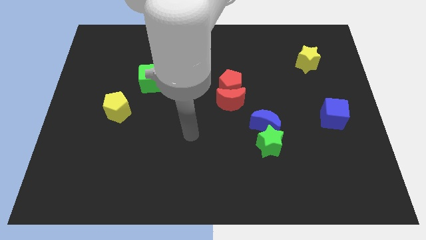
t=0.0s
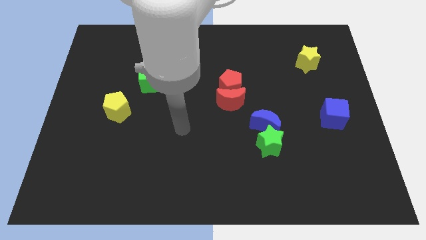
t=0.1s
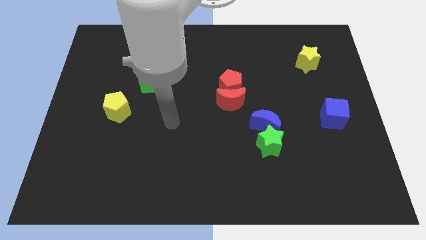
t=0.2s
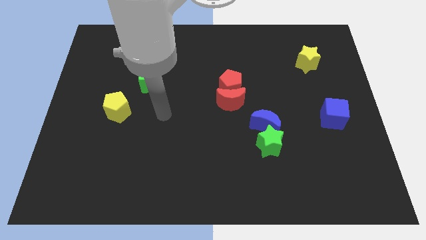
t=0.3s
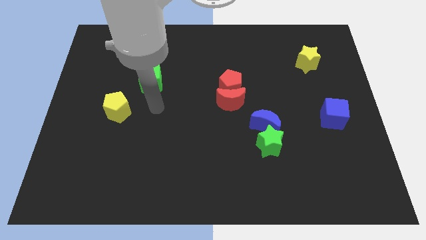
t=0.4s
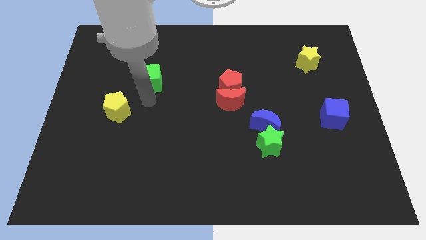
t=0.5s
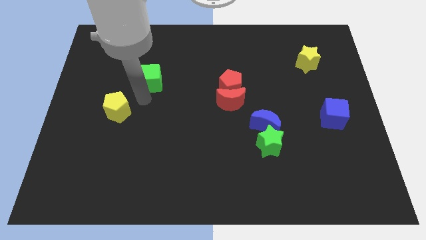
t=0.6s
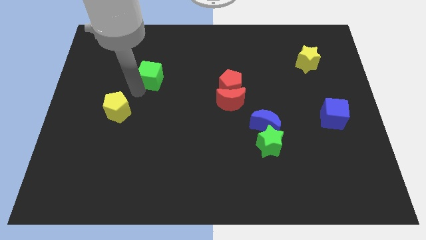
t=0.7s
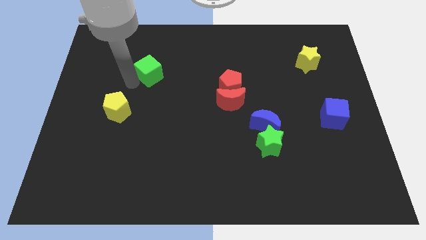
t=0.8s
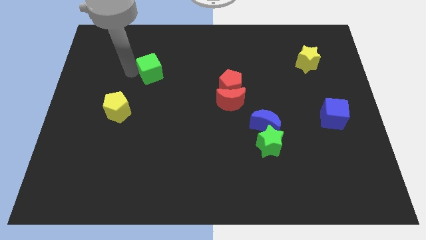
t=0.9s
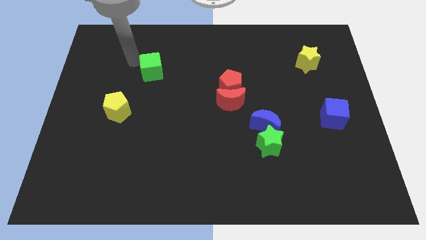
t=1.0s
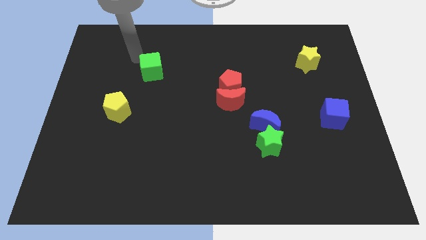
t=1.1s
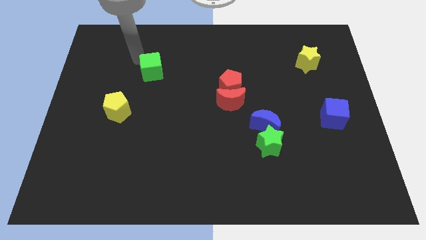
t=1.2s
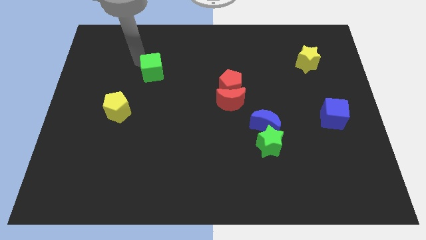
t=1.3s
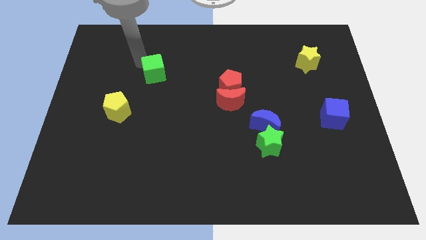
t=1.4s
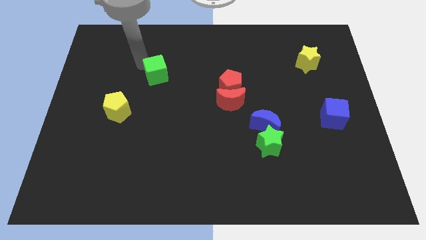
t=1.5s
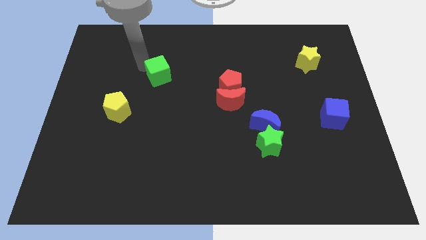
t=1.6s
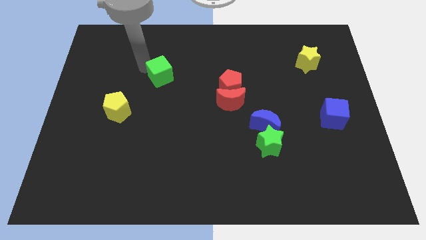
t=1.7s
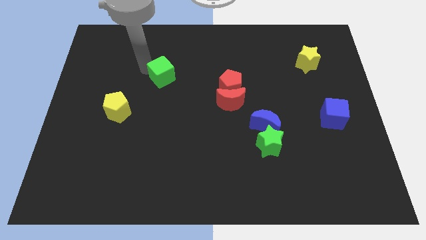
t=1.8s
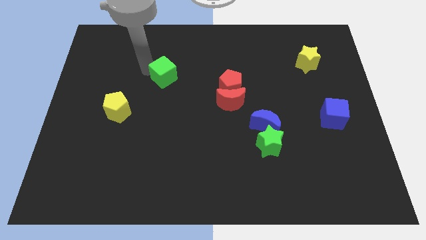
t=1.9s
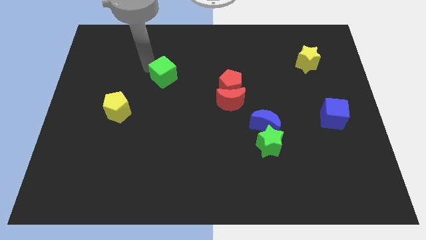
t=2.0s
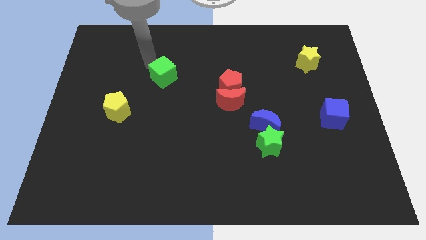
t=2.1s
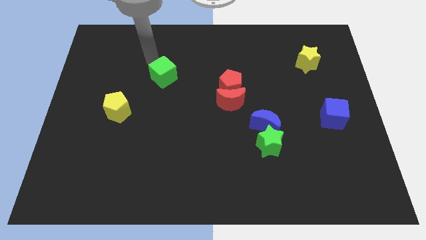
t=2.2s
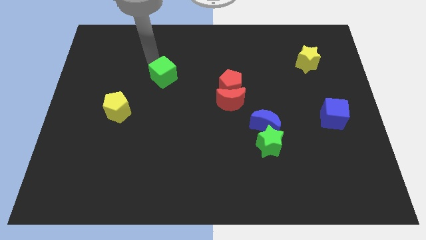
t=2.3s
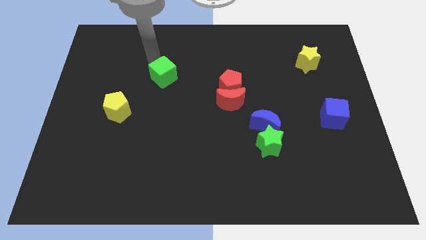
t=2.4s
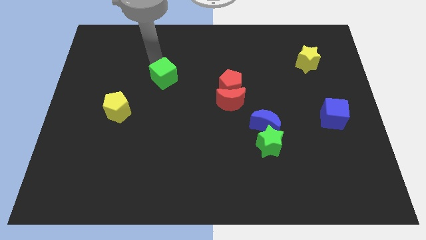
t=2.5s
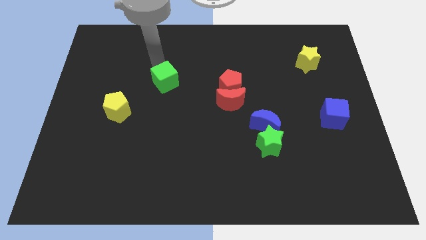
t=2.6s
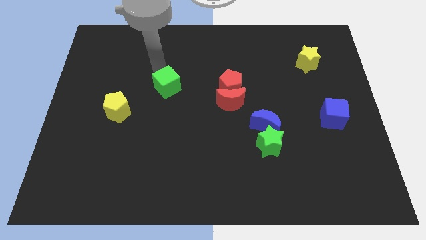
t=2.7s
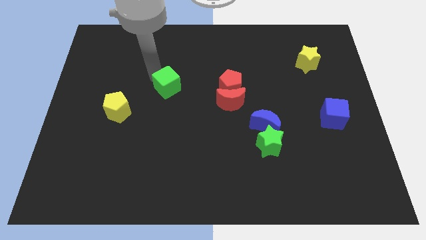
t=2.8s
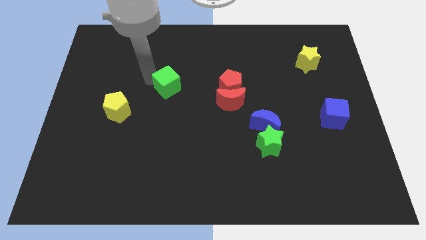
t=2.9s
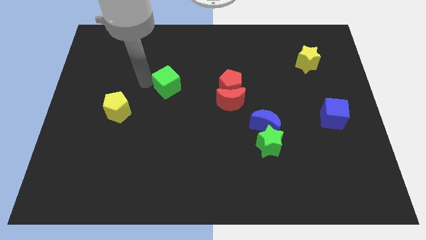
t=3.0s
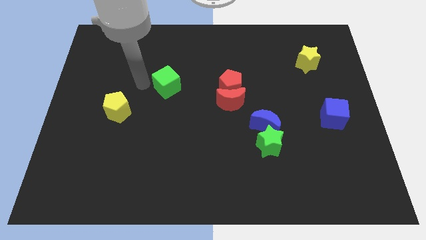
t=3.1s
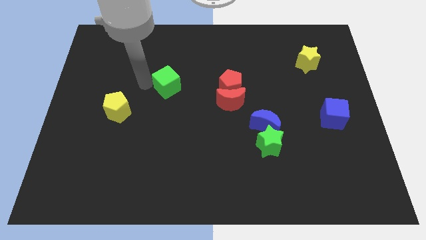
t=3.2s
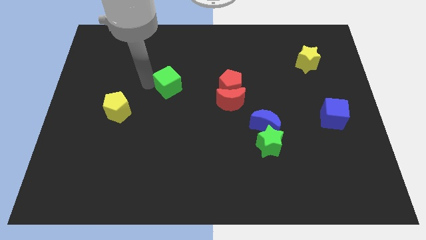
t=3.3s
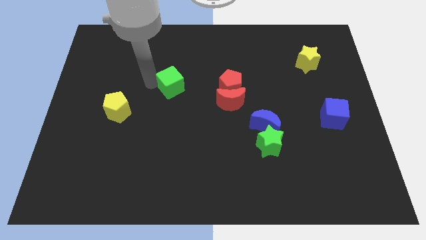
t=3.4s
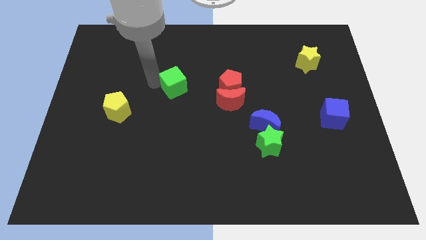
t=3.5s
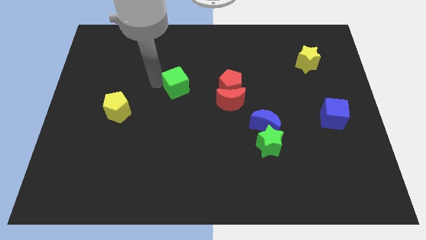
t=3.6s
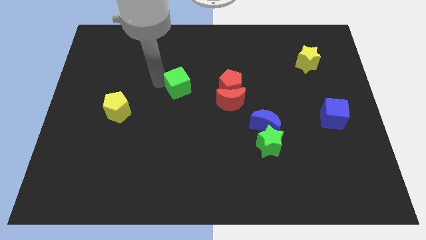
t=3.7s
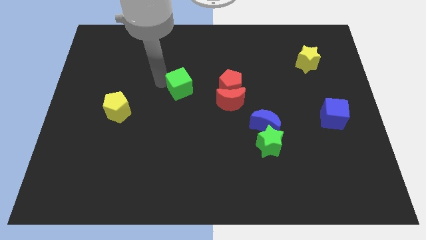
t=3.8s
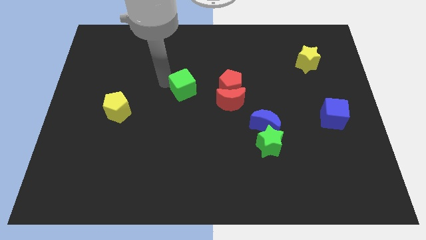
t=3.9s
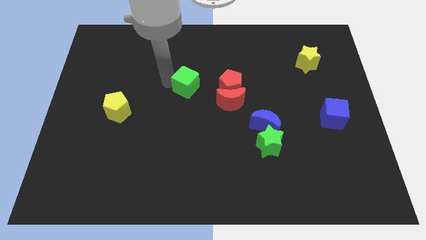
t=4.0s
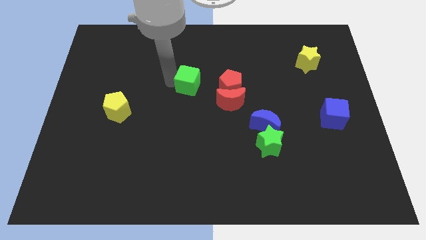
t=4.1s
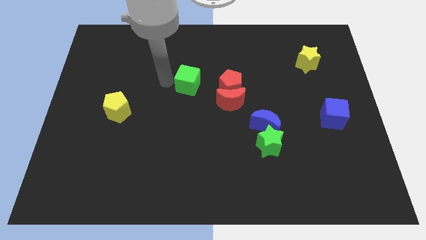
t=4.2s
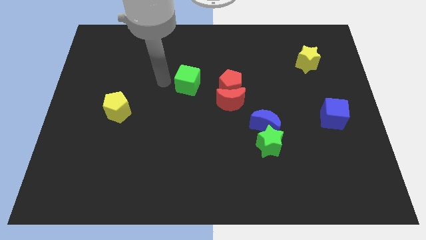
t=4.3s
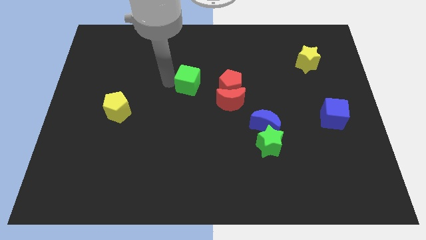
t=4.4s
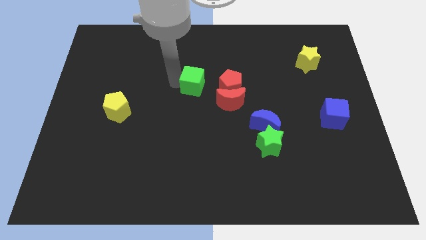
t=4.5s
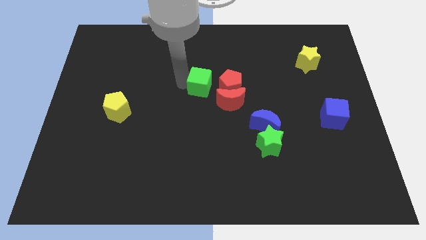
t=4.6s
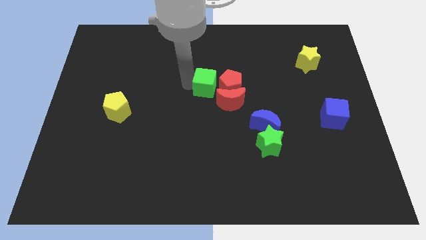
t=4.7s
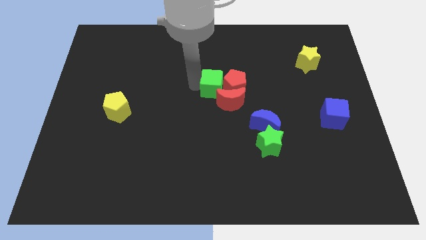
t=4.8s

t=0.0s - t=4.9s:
put the green cube next to the red pentagon

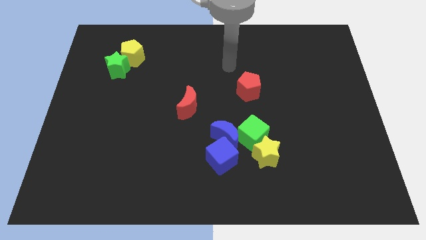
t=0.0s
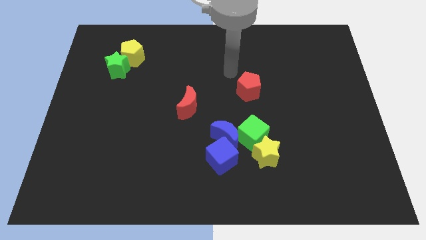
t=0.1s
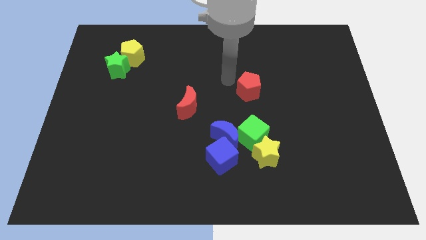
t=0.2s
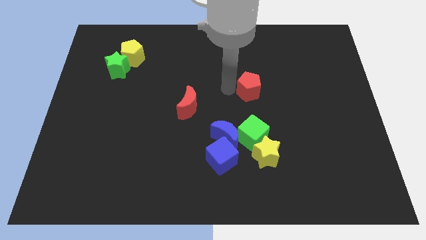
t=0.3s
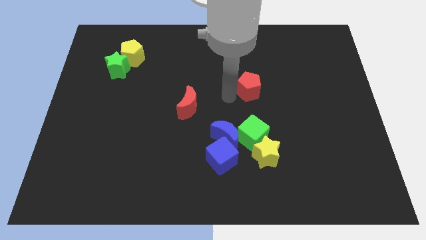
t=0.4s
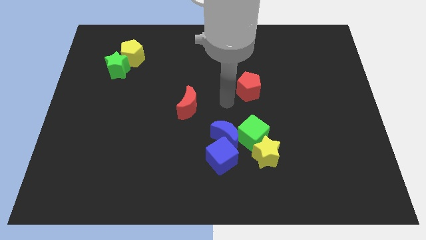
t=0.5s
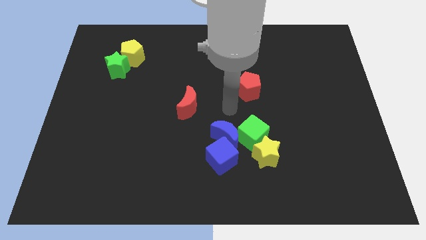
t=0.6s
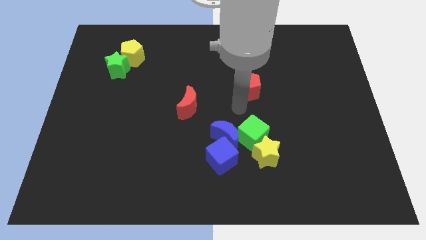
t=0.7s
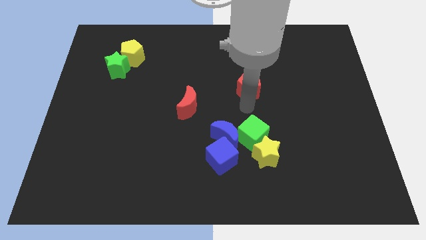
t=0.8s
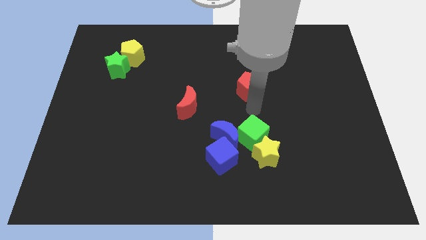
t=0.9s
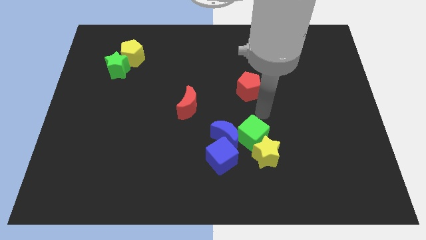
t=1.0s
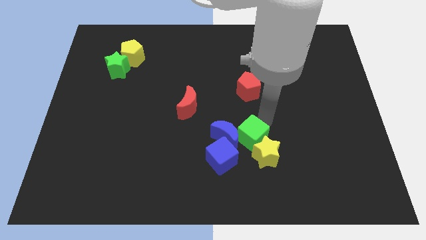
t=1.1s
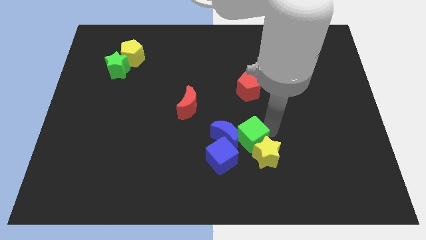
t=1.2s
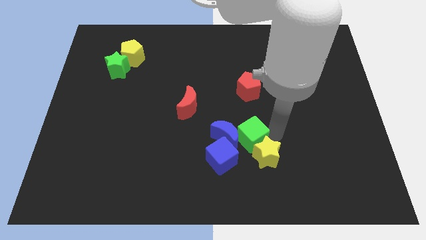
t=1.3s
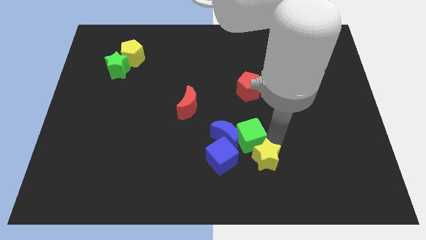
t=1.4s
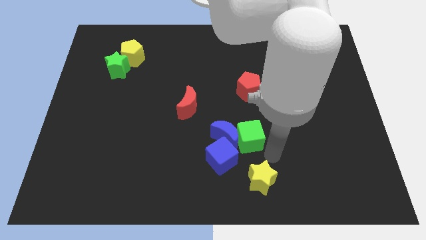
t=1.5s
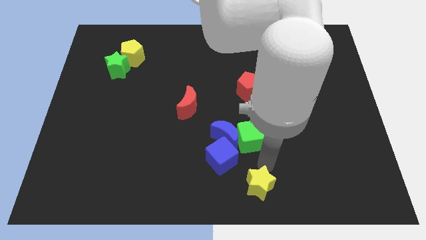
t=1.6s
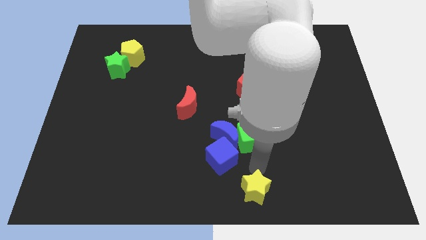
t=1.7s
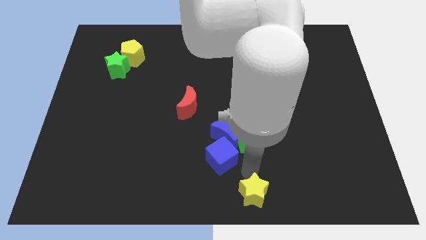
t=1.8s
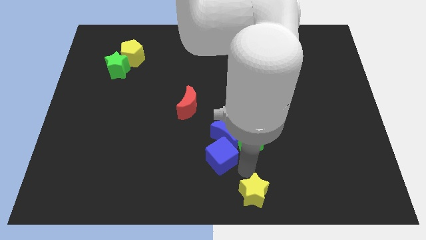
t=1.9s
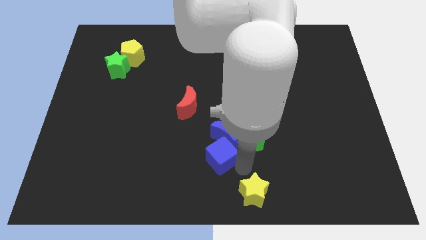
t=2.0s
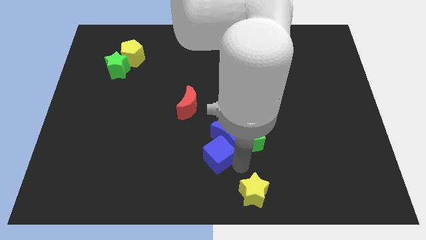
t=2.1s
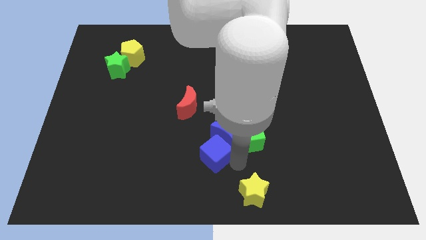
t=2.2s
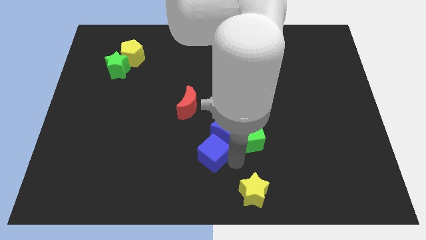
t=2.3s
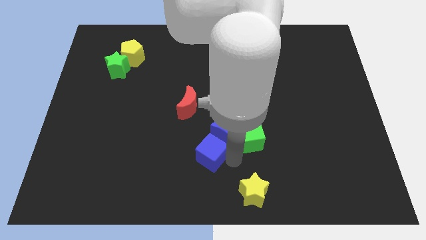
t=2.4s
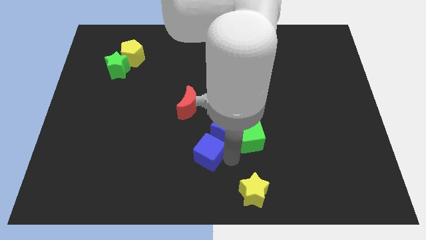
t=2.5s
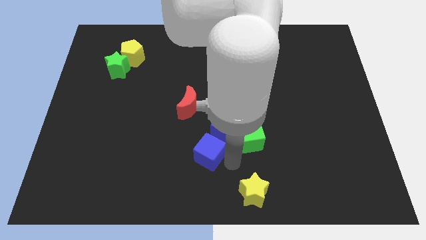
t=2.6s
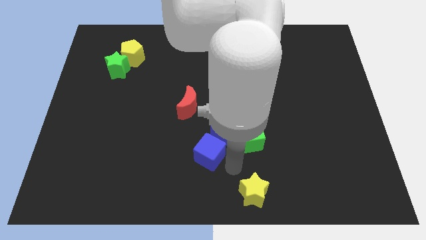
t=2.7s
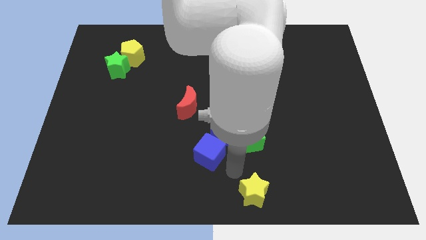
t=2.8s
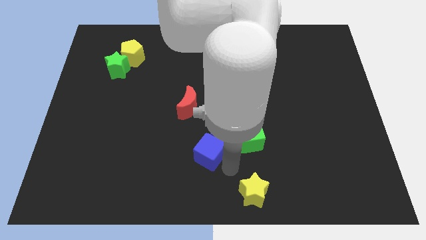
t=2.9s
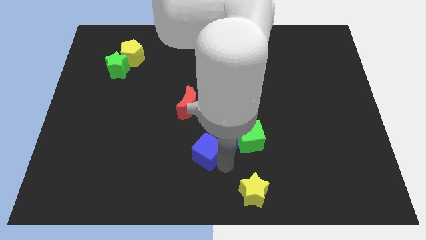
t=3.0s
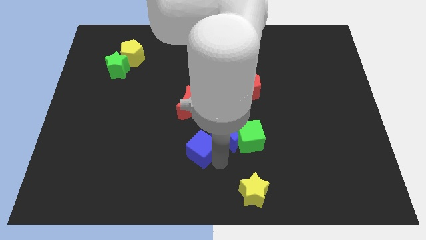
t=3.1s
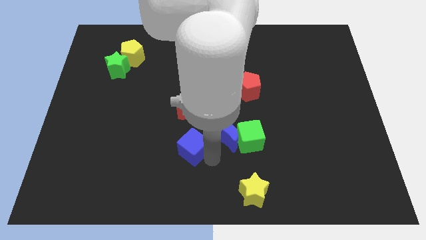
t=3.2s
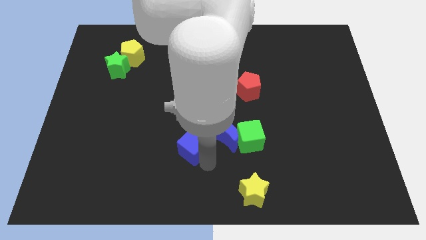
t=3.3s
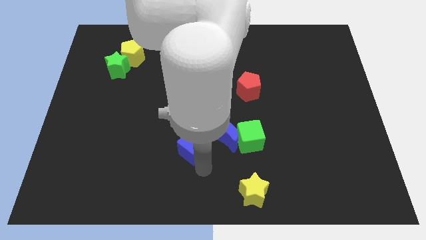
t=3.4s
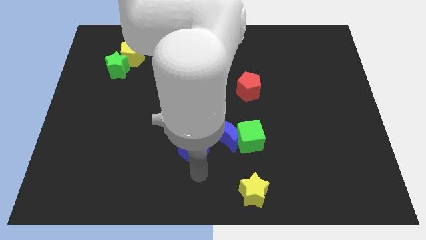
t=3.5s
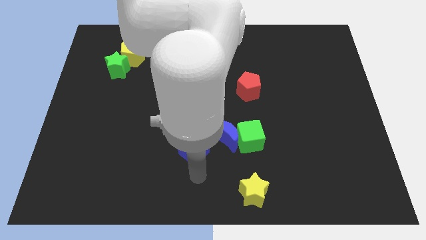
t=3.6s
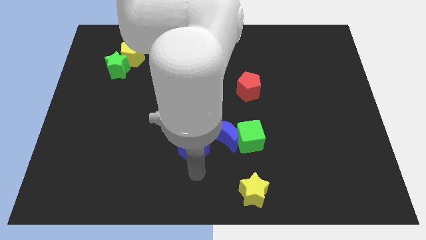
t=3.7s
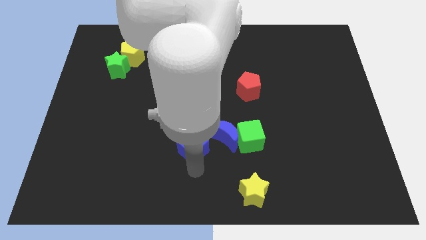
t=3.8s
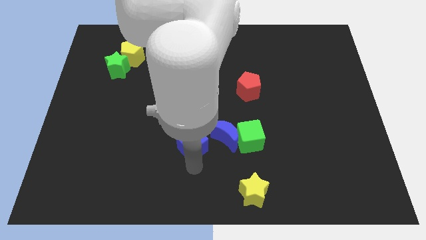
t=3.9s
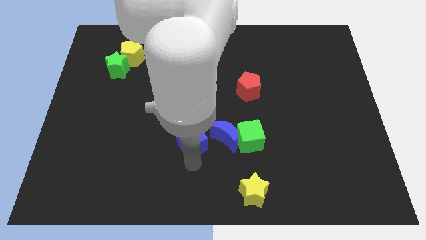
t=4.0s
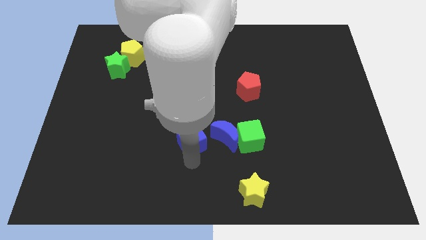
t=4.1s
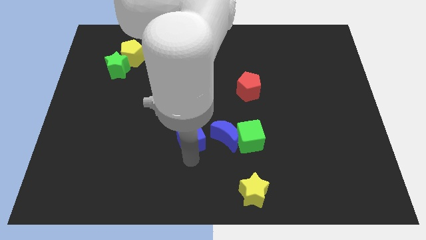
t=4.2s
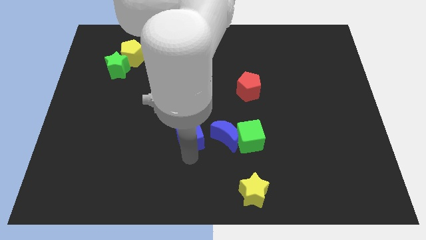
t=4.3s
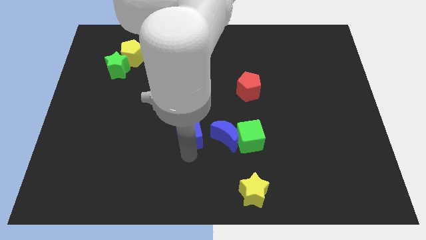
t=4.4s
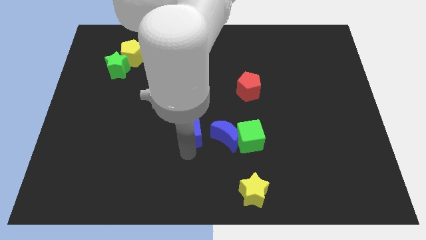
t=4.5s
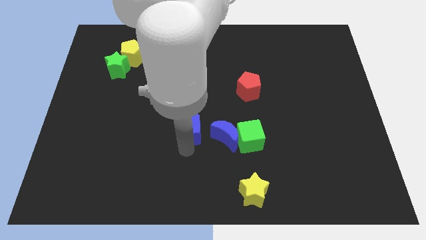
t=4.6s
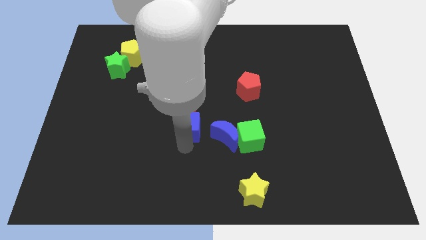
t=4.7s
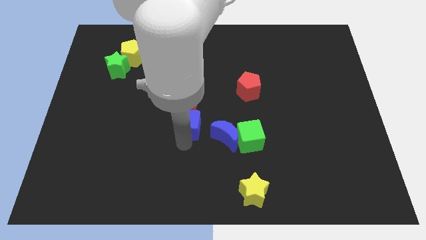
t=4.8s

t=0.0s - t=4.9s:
put the blue cube towards the red moon
